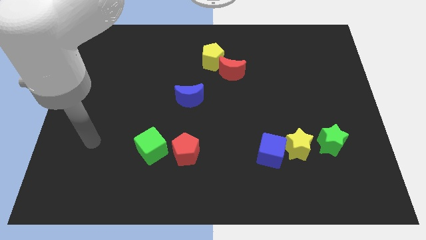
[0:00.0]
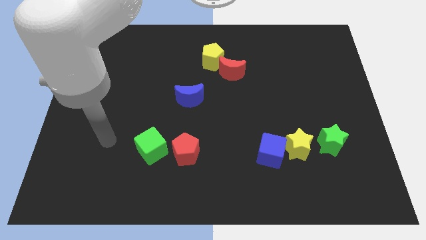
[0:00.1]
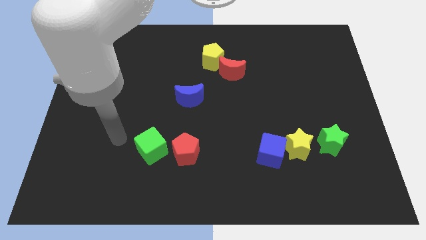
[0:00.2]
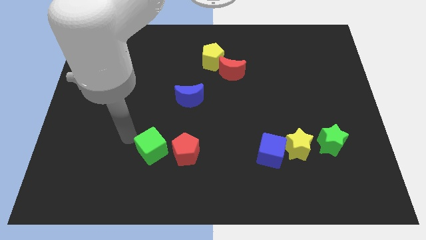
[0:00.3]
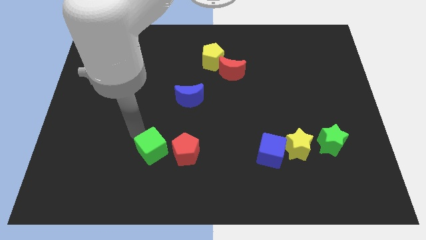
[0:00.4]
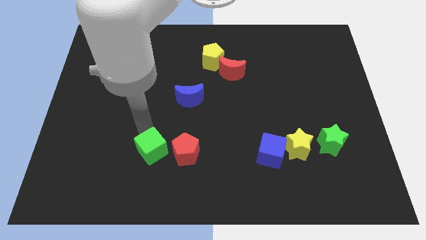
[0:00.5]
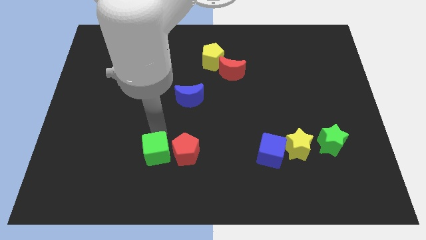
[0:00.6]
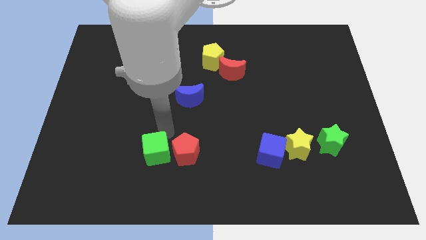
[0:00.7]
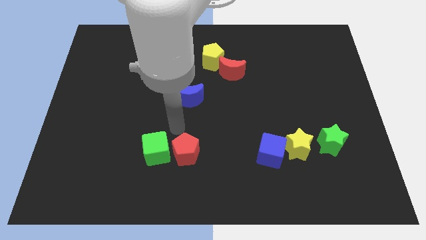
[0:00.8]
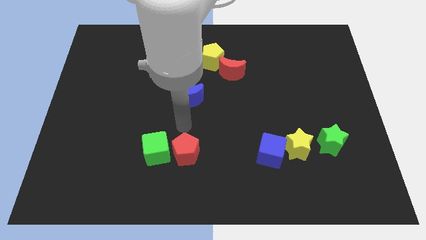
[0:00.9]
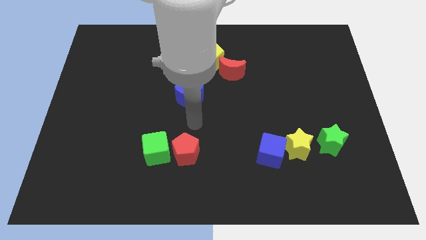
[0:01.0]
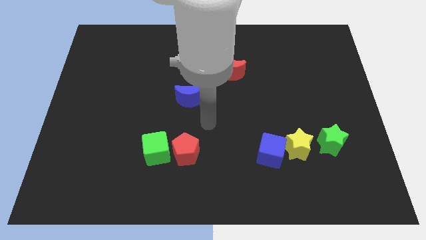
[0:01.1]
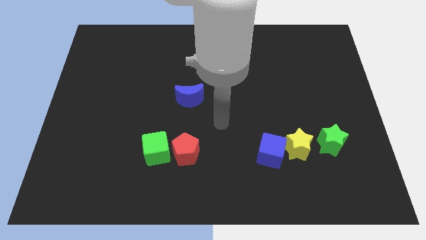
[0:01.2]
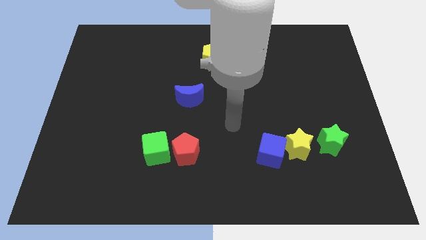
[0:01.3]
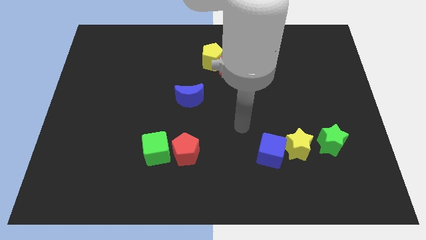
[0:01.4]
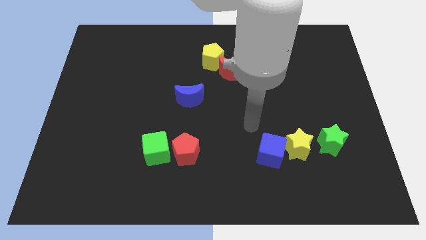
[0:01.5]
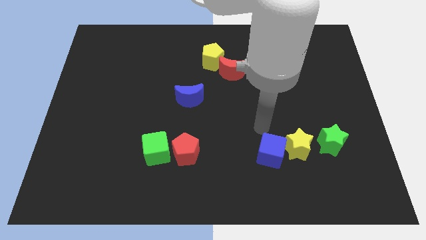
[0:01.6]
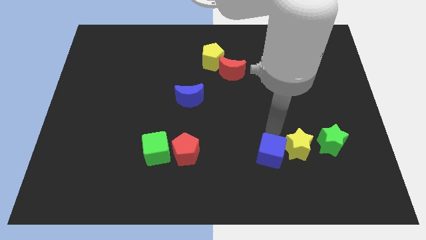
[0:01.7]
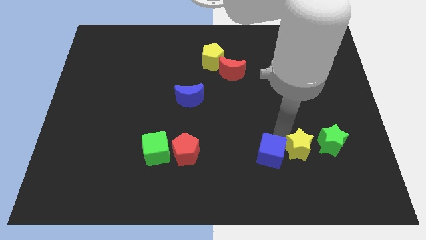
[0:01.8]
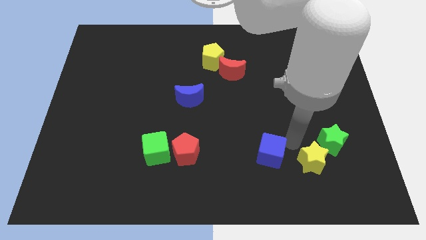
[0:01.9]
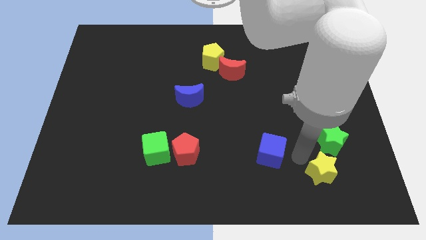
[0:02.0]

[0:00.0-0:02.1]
pull the blue cube apart from the yellow star

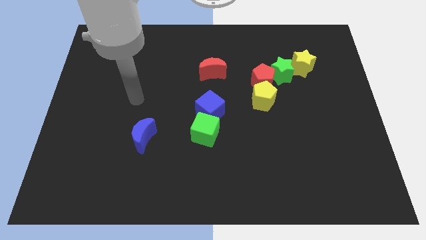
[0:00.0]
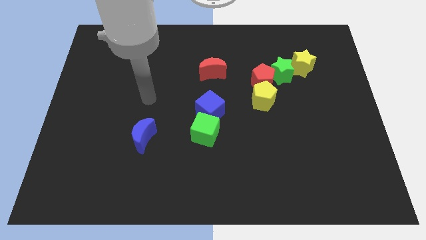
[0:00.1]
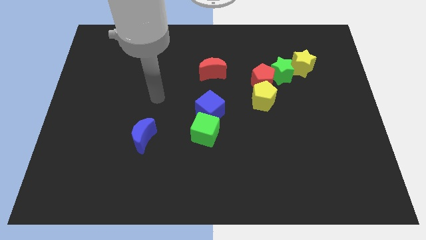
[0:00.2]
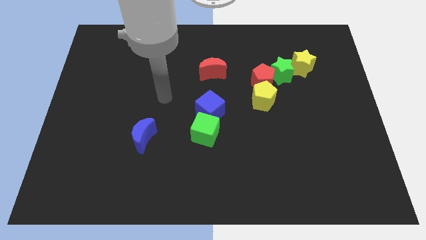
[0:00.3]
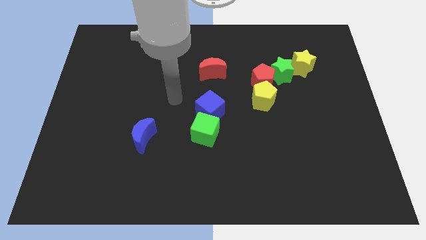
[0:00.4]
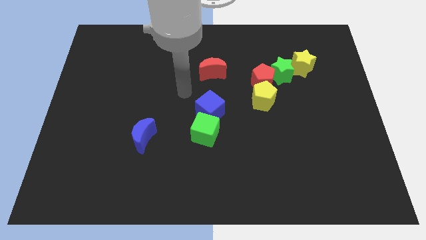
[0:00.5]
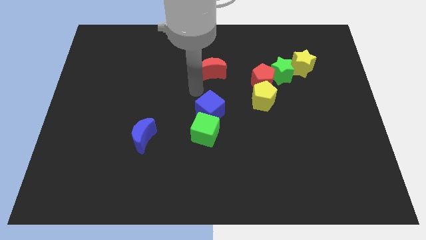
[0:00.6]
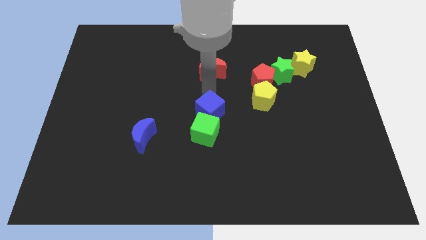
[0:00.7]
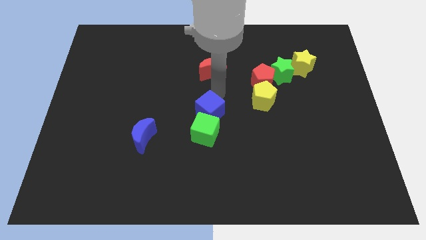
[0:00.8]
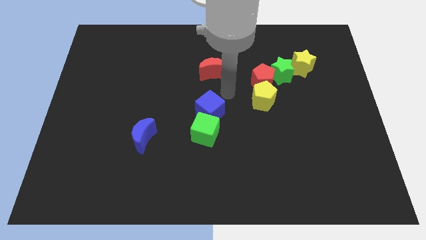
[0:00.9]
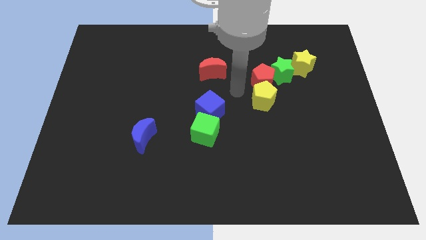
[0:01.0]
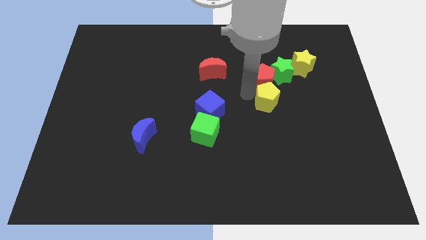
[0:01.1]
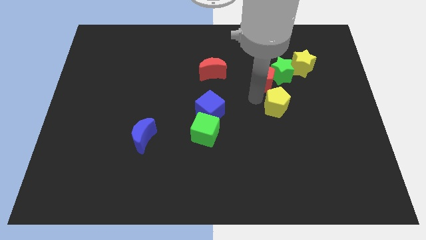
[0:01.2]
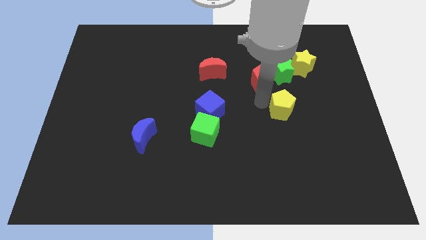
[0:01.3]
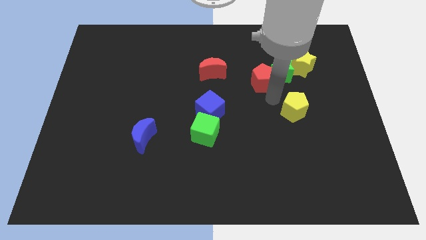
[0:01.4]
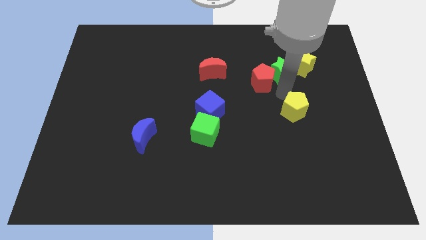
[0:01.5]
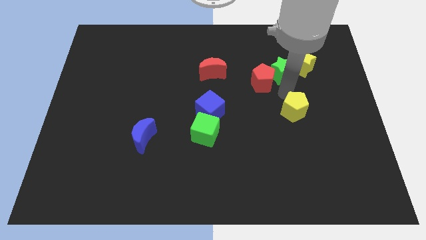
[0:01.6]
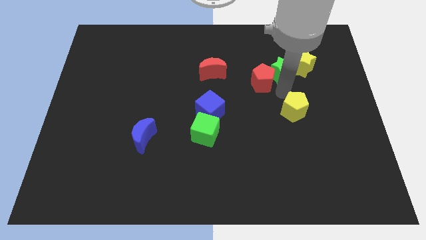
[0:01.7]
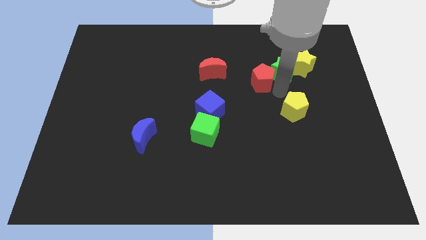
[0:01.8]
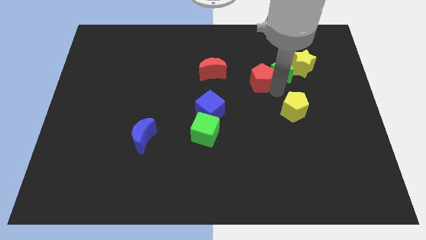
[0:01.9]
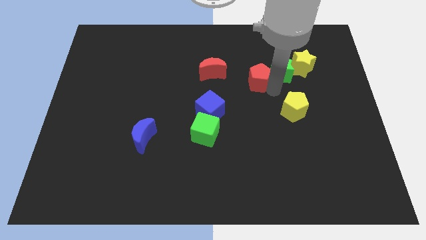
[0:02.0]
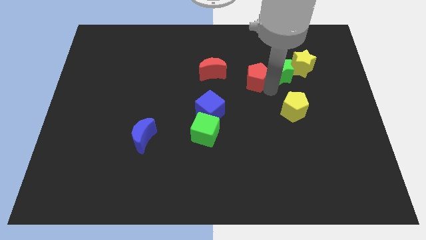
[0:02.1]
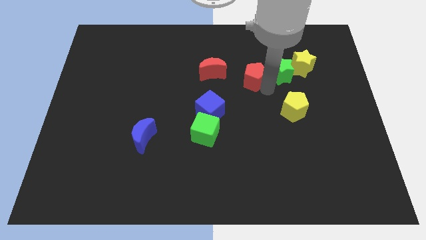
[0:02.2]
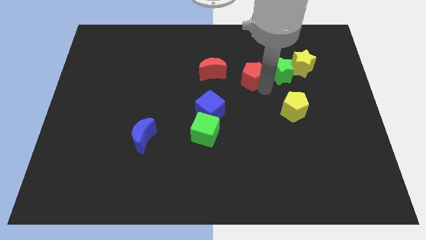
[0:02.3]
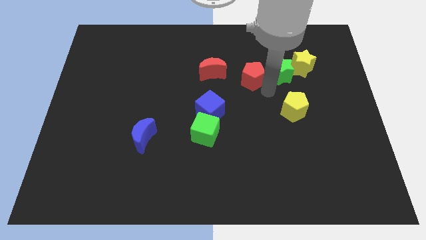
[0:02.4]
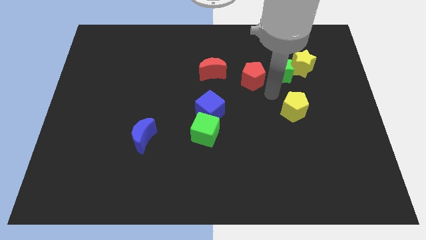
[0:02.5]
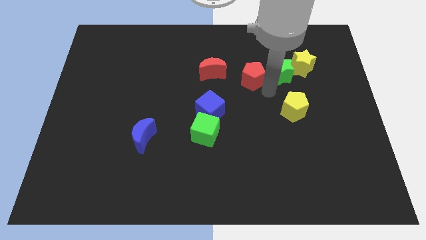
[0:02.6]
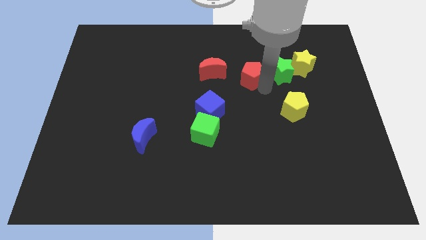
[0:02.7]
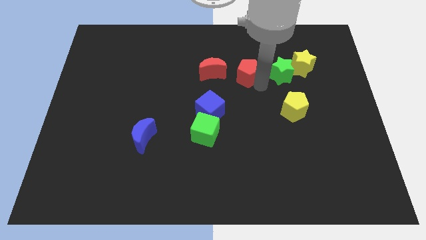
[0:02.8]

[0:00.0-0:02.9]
move the red pentagon away from the green star and yellow pentagon

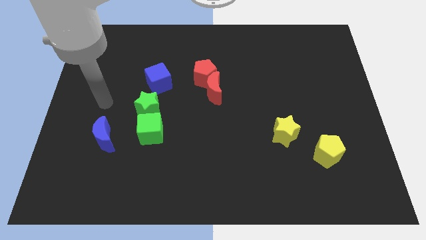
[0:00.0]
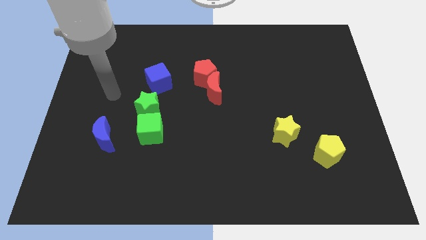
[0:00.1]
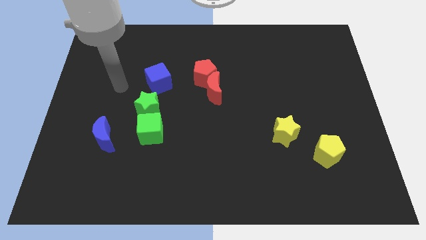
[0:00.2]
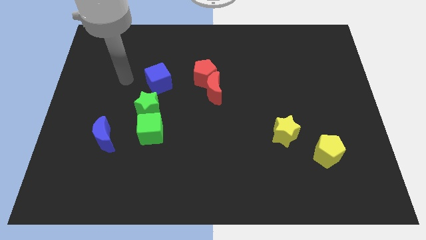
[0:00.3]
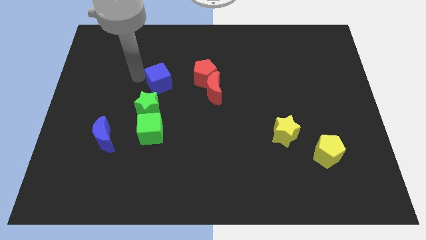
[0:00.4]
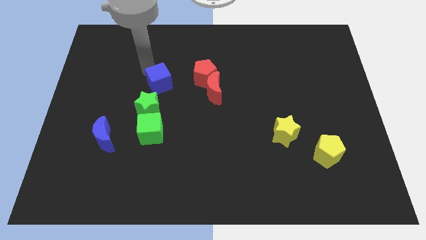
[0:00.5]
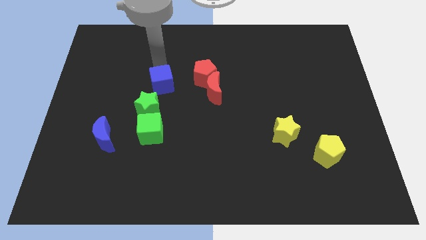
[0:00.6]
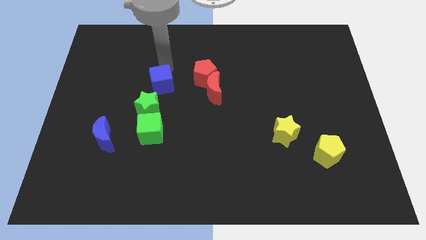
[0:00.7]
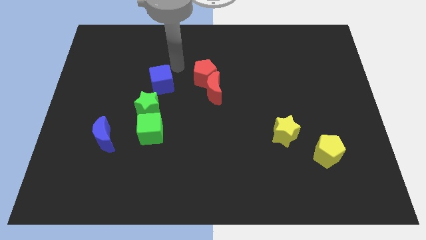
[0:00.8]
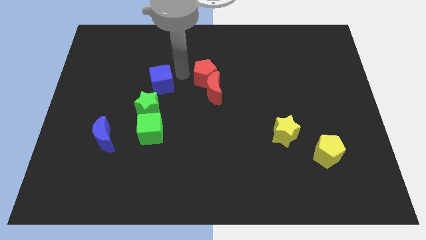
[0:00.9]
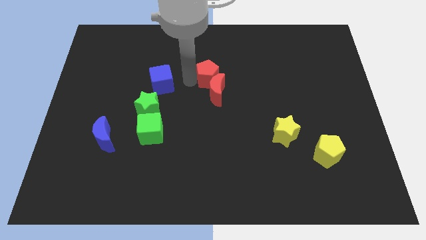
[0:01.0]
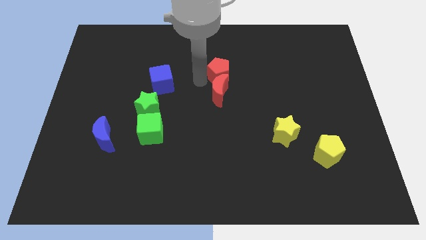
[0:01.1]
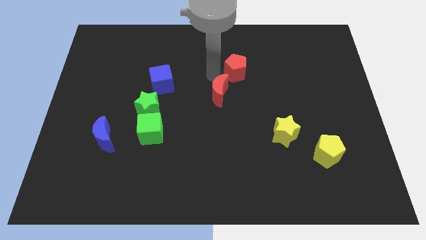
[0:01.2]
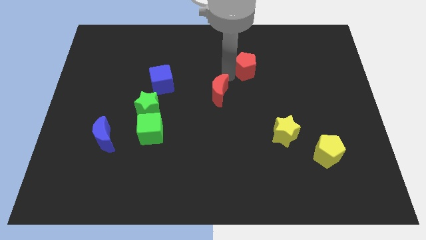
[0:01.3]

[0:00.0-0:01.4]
pull the red moon apart from the red pentagon

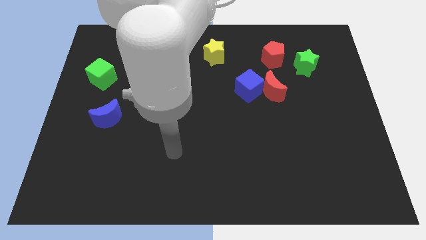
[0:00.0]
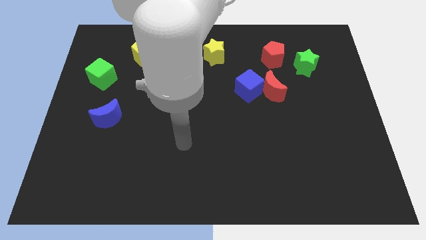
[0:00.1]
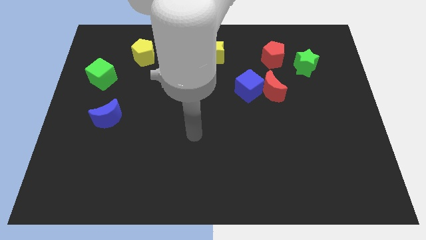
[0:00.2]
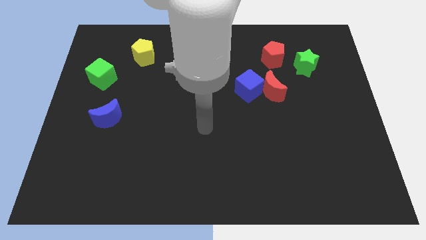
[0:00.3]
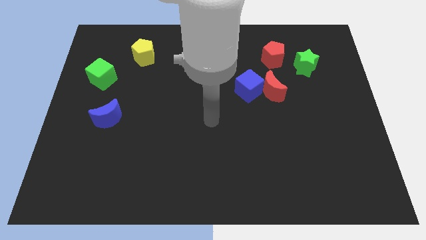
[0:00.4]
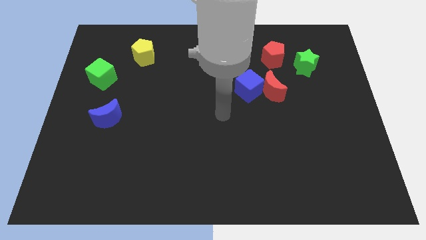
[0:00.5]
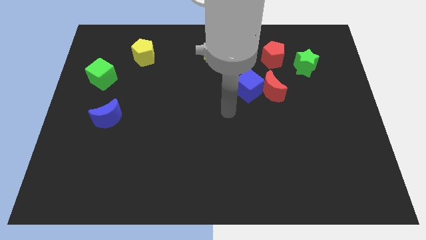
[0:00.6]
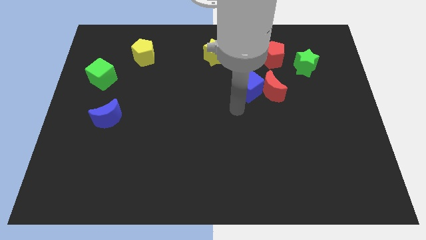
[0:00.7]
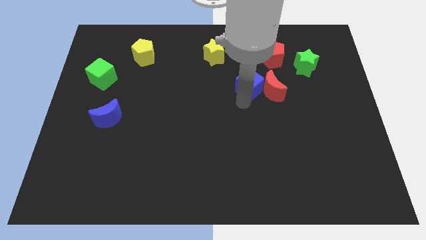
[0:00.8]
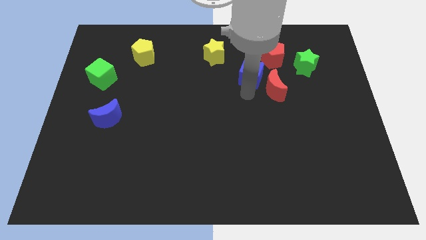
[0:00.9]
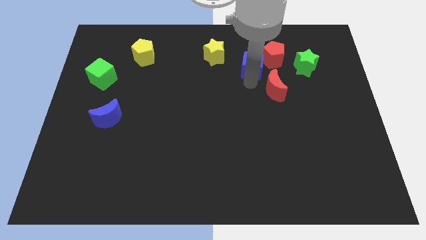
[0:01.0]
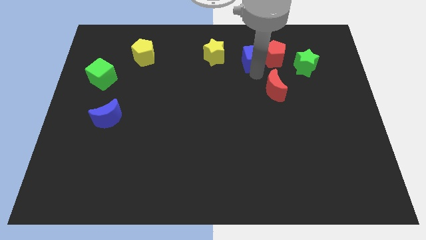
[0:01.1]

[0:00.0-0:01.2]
move the red moon away from the blue cube

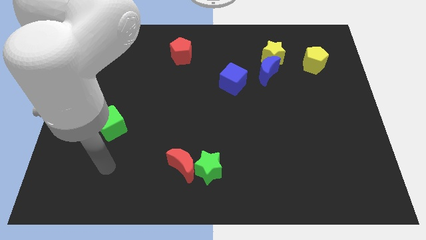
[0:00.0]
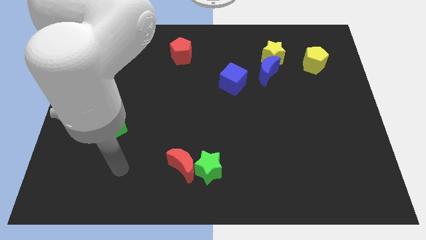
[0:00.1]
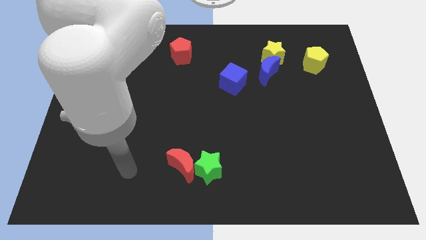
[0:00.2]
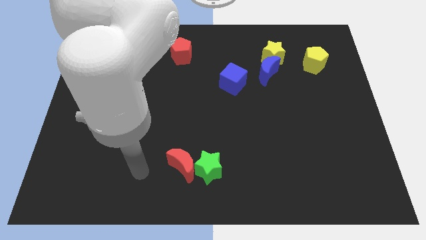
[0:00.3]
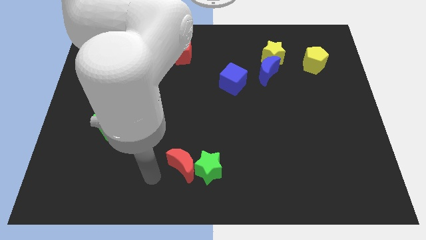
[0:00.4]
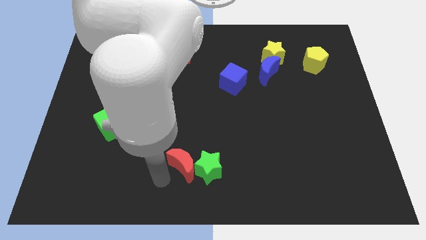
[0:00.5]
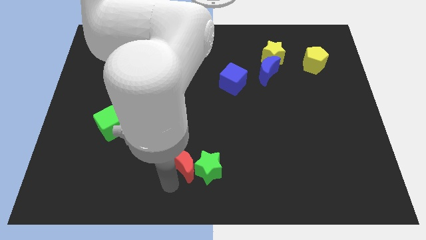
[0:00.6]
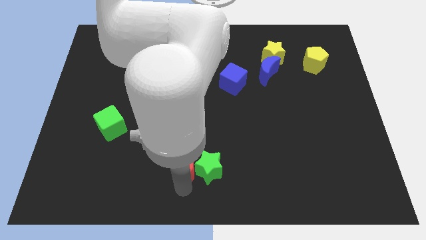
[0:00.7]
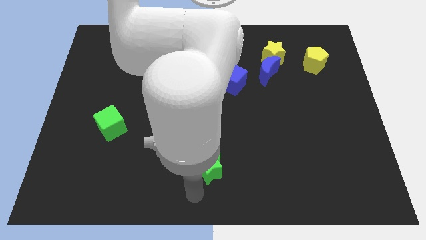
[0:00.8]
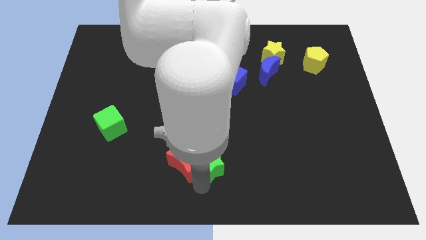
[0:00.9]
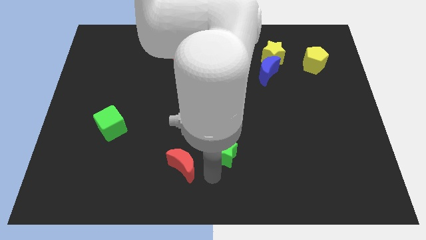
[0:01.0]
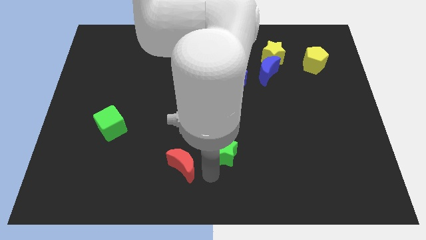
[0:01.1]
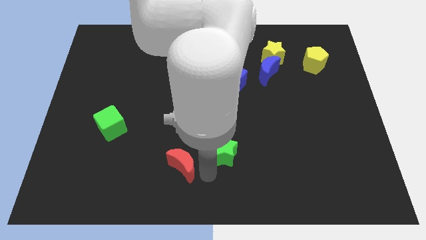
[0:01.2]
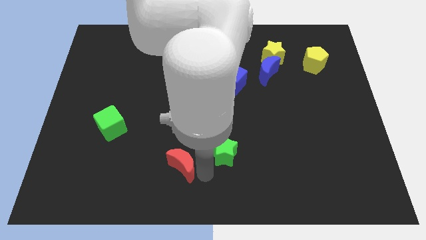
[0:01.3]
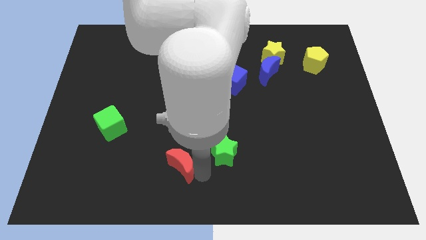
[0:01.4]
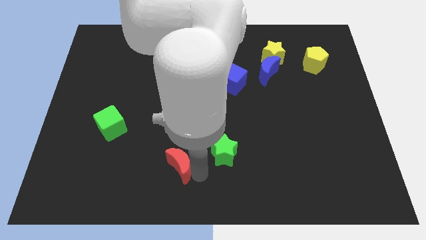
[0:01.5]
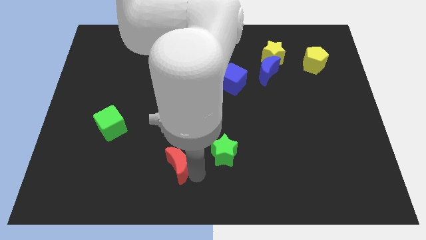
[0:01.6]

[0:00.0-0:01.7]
separate the red moon from the green star
